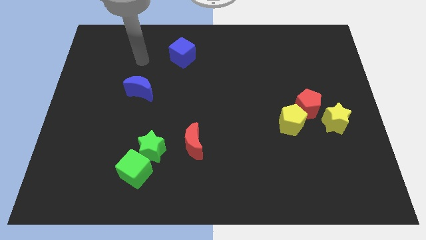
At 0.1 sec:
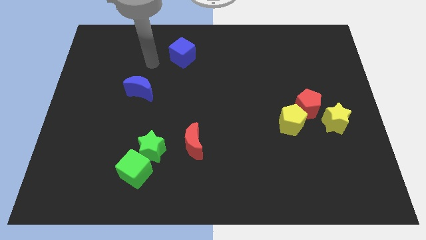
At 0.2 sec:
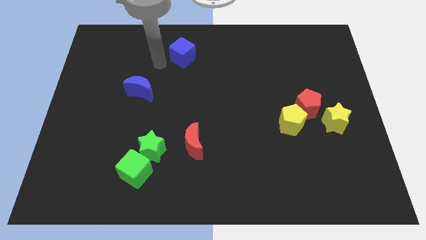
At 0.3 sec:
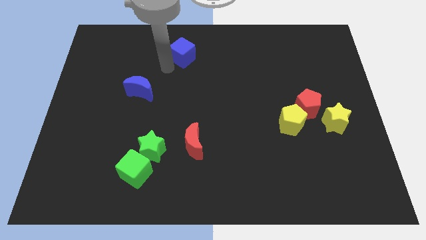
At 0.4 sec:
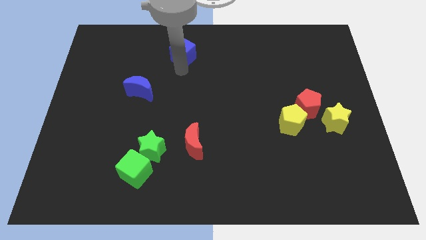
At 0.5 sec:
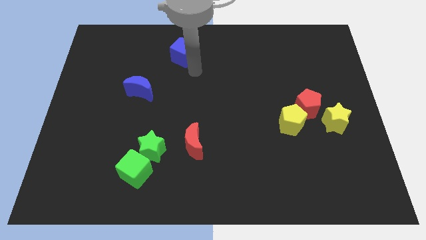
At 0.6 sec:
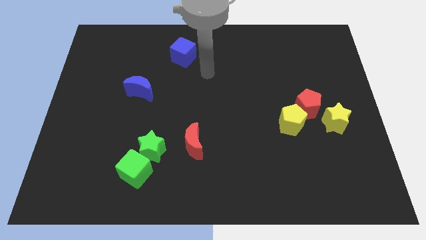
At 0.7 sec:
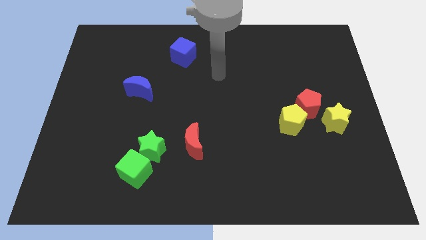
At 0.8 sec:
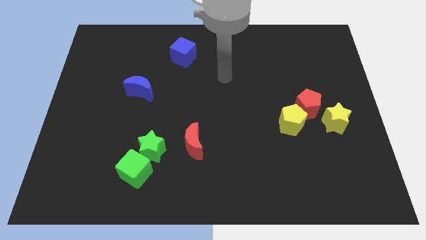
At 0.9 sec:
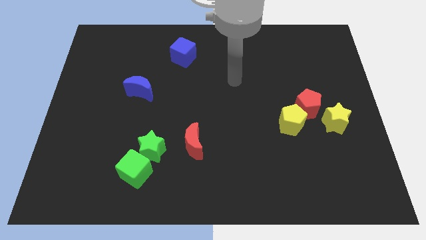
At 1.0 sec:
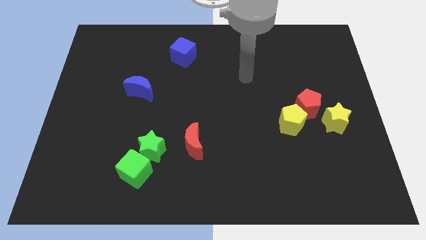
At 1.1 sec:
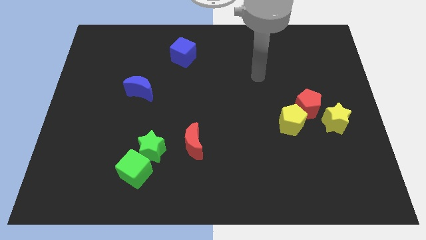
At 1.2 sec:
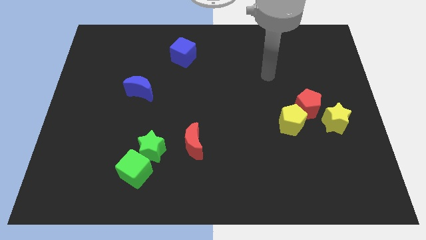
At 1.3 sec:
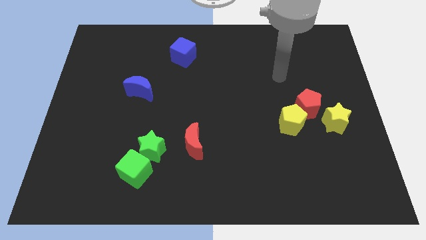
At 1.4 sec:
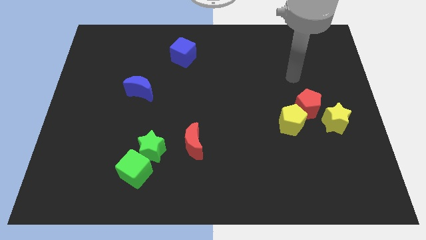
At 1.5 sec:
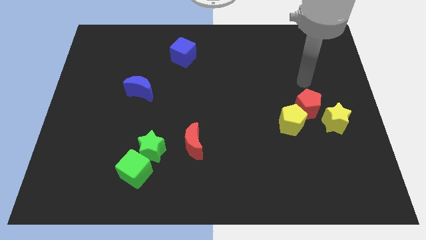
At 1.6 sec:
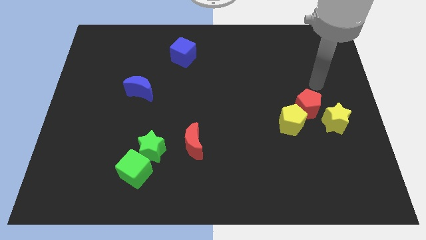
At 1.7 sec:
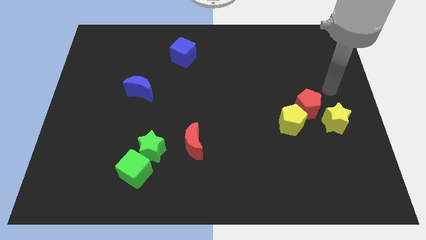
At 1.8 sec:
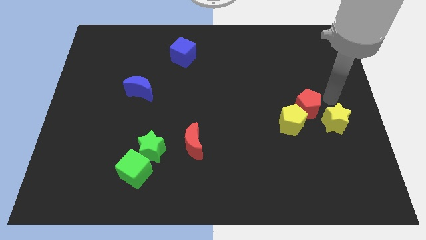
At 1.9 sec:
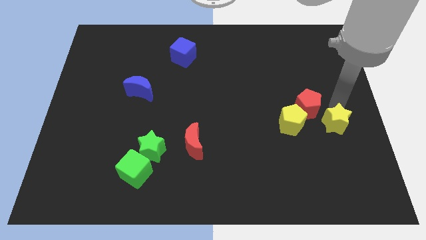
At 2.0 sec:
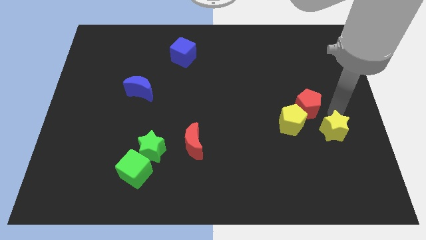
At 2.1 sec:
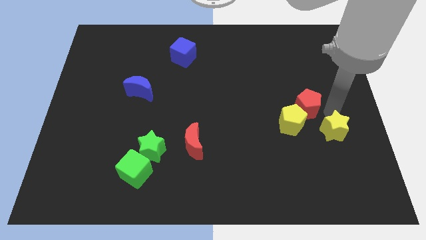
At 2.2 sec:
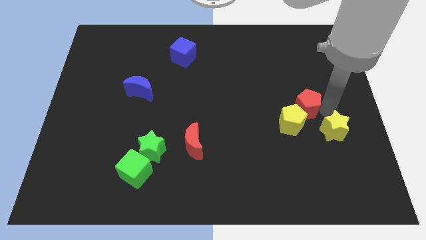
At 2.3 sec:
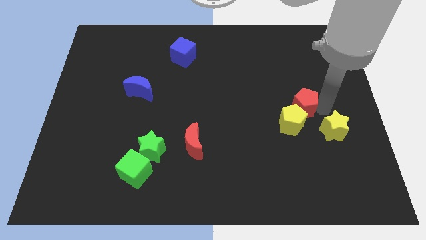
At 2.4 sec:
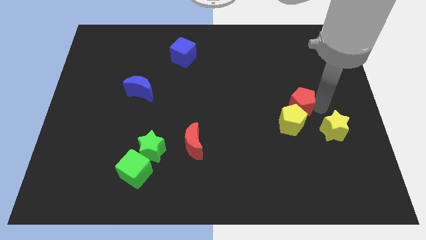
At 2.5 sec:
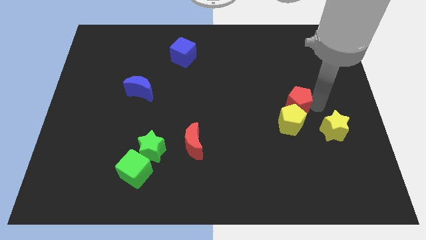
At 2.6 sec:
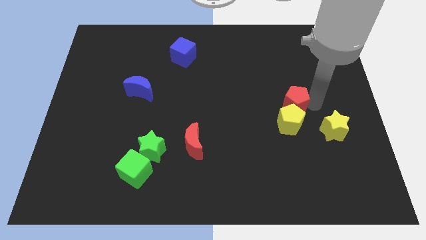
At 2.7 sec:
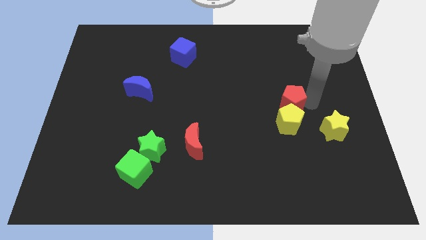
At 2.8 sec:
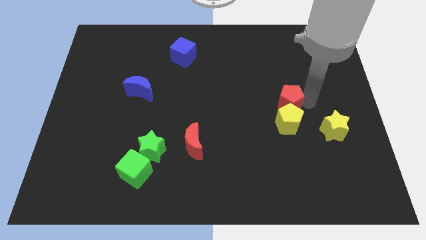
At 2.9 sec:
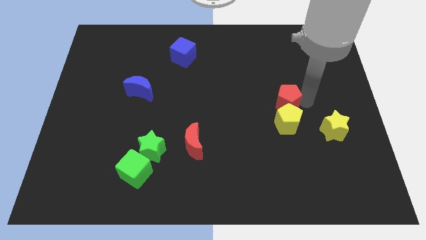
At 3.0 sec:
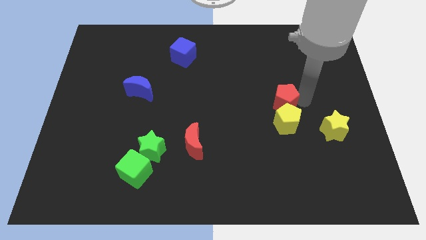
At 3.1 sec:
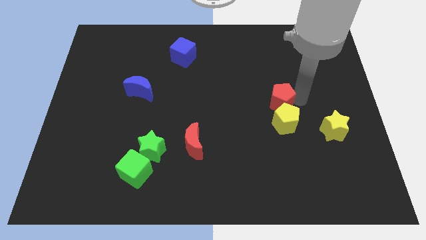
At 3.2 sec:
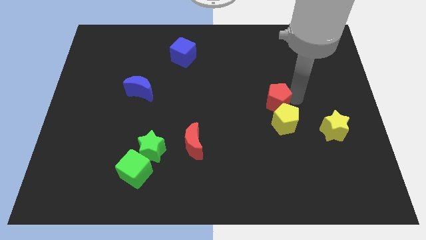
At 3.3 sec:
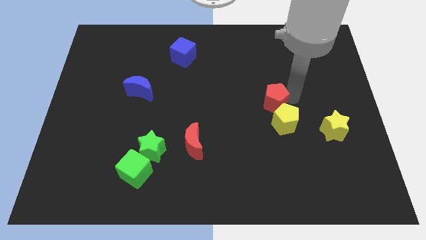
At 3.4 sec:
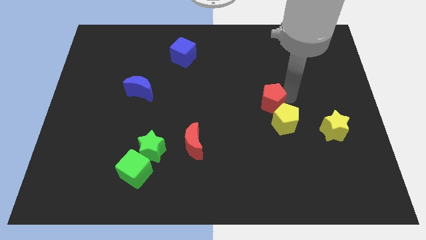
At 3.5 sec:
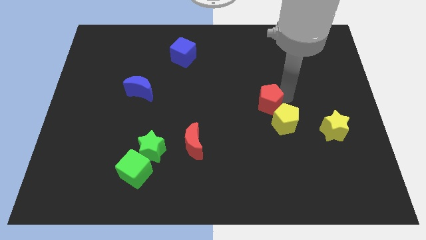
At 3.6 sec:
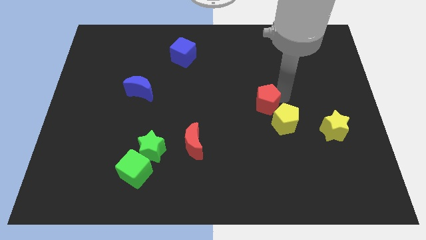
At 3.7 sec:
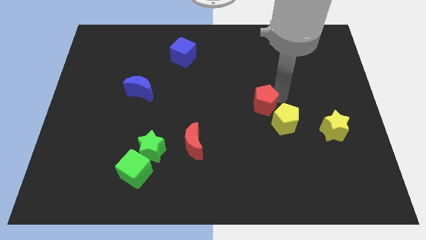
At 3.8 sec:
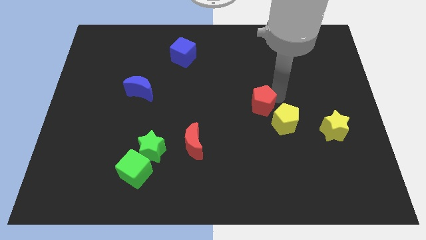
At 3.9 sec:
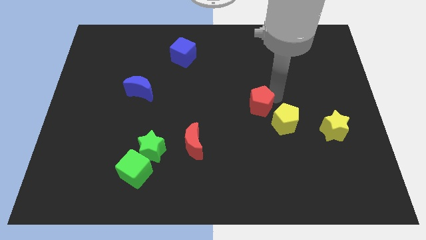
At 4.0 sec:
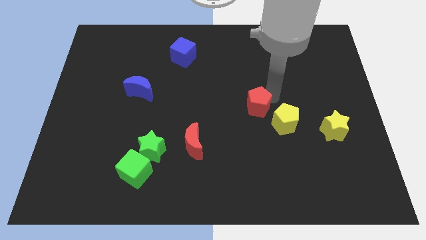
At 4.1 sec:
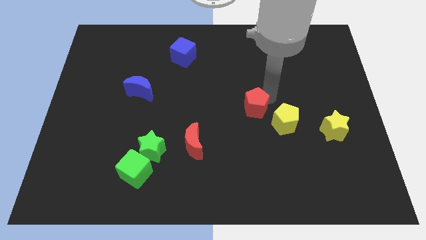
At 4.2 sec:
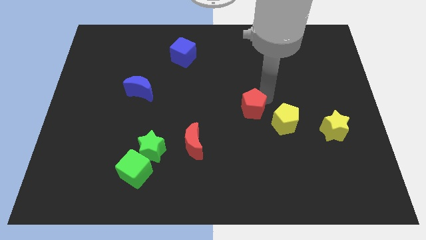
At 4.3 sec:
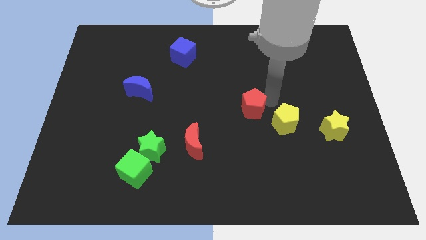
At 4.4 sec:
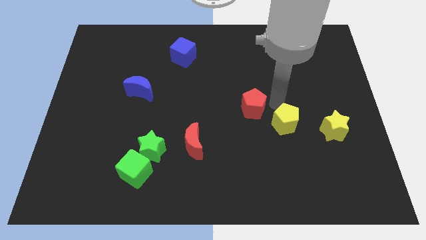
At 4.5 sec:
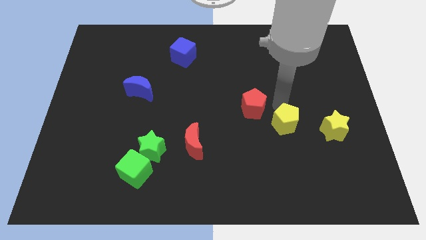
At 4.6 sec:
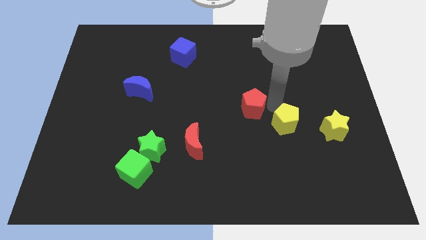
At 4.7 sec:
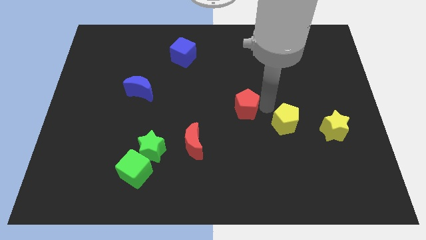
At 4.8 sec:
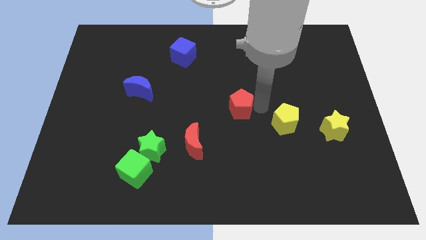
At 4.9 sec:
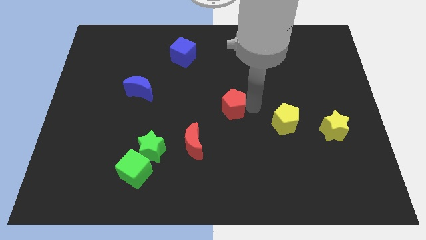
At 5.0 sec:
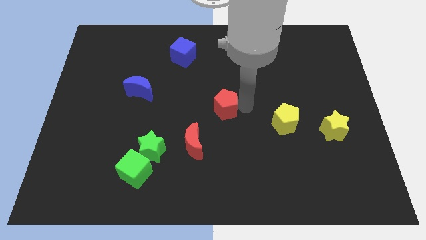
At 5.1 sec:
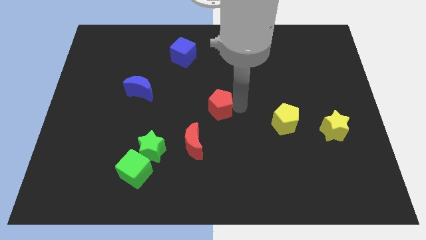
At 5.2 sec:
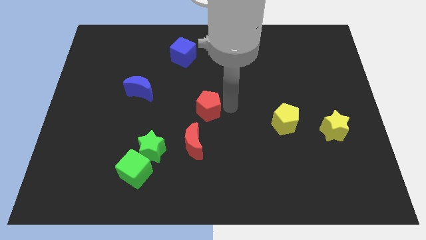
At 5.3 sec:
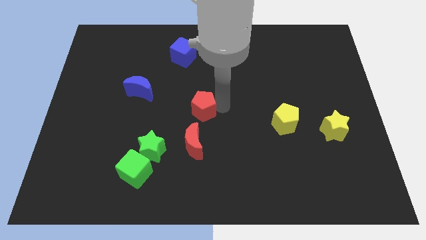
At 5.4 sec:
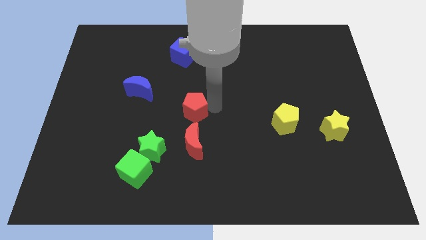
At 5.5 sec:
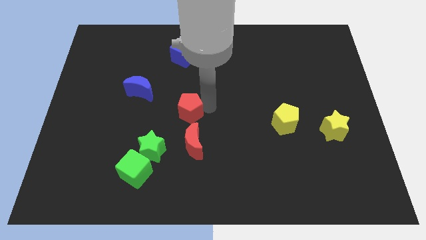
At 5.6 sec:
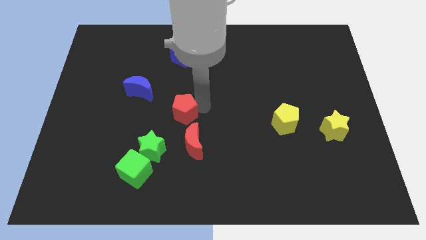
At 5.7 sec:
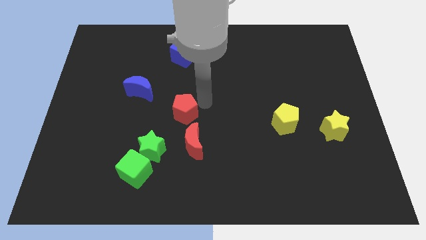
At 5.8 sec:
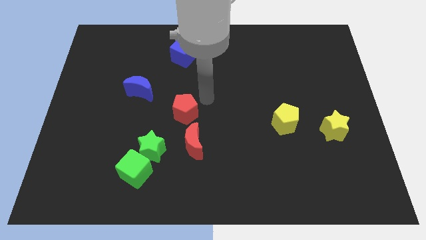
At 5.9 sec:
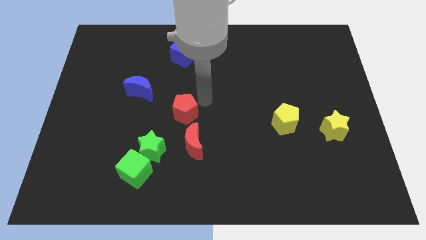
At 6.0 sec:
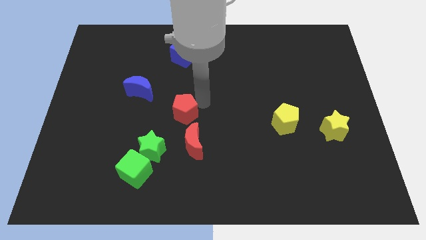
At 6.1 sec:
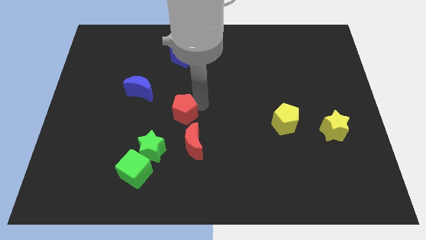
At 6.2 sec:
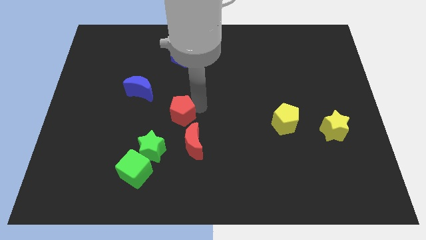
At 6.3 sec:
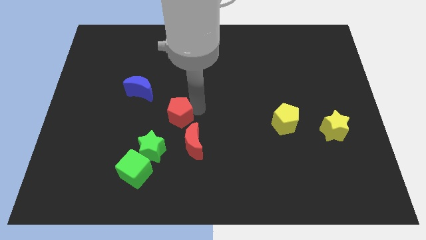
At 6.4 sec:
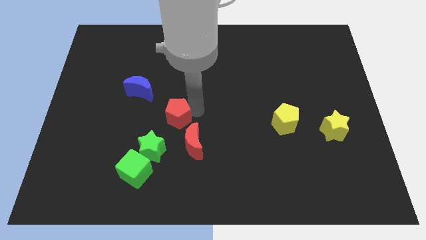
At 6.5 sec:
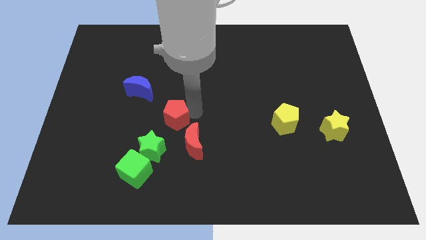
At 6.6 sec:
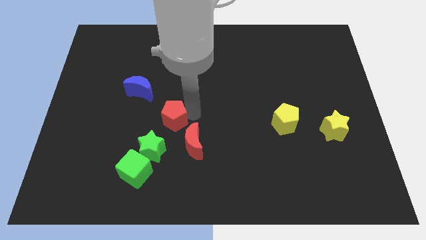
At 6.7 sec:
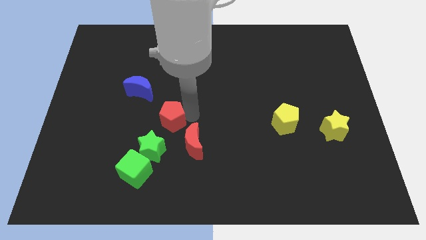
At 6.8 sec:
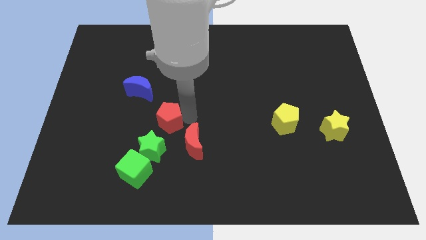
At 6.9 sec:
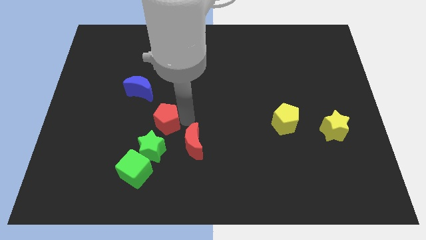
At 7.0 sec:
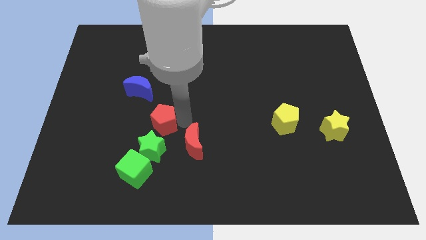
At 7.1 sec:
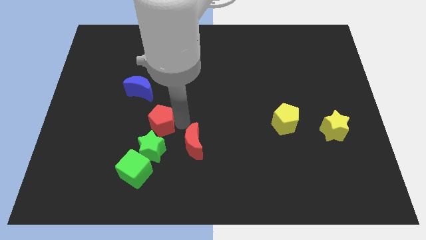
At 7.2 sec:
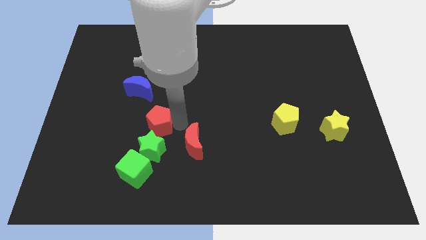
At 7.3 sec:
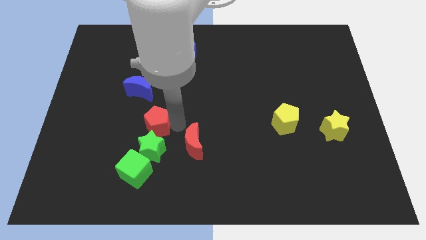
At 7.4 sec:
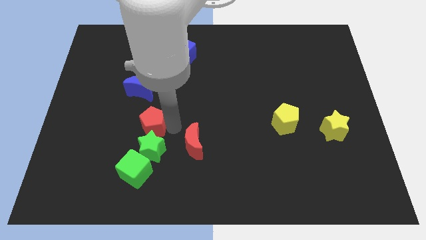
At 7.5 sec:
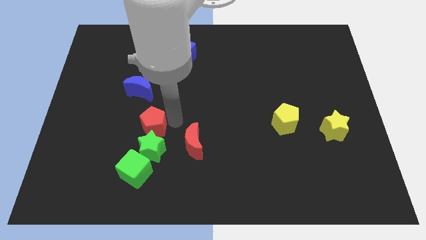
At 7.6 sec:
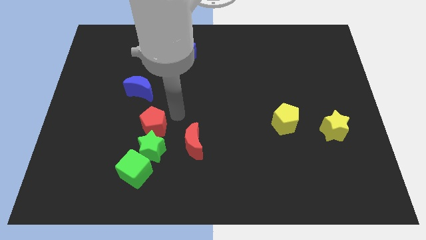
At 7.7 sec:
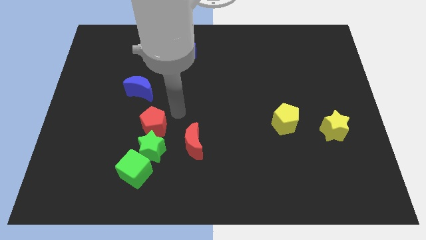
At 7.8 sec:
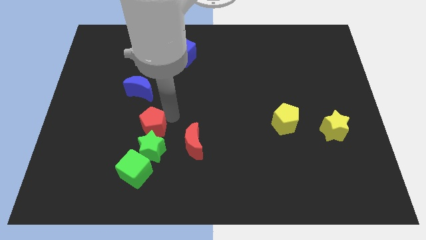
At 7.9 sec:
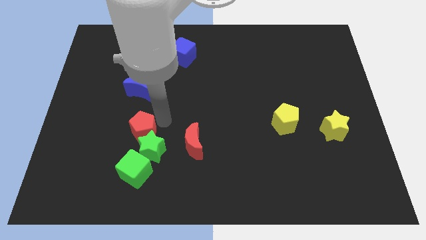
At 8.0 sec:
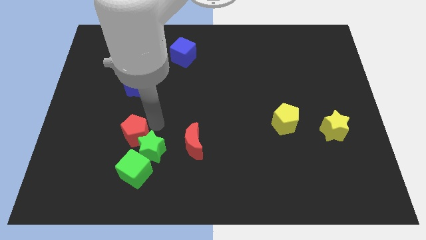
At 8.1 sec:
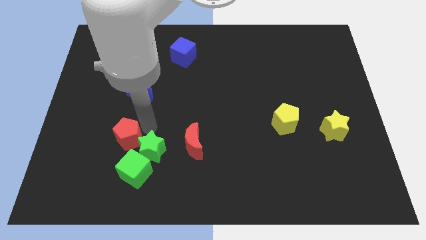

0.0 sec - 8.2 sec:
push the red pentagon to the top left side of the green cube
